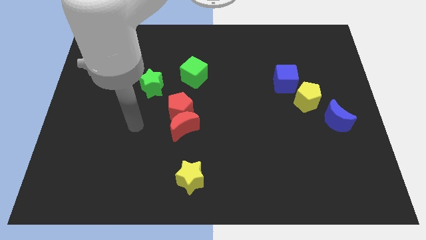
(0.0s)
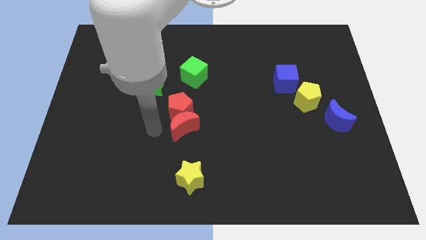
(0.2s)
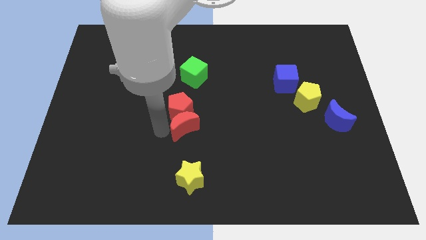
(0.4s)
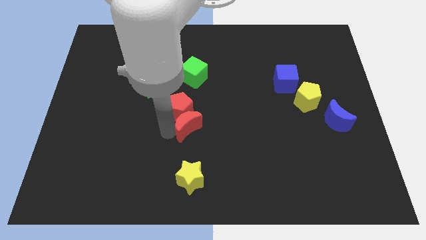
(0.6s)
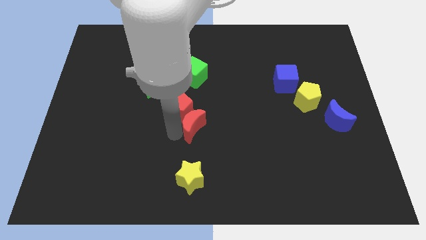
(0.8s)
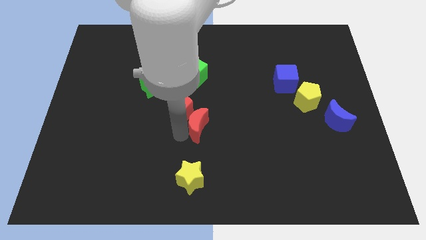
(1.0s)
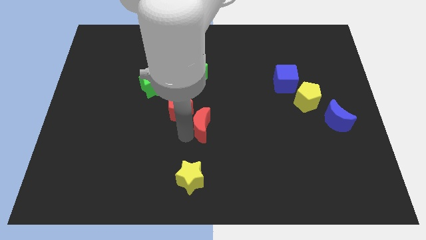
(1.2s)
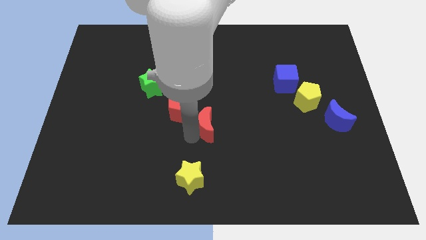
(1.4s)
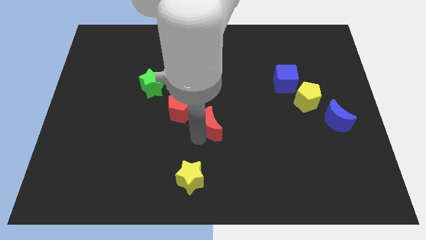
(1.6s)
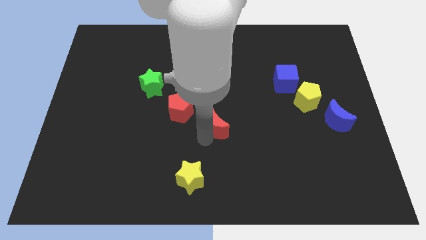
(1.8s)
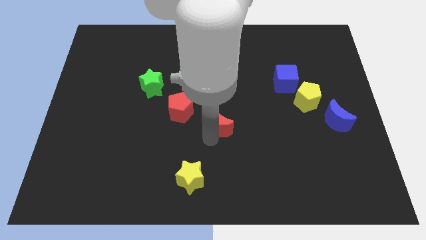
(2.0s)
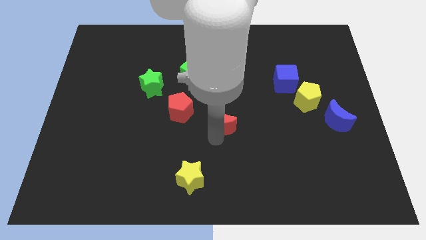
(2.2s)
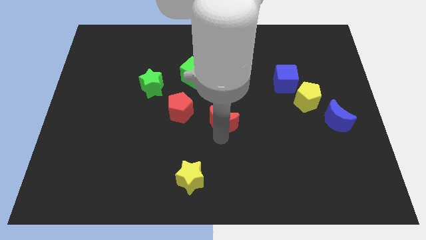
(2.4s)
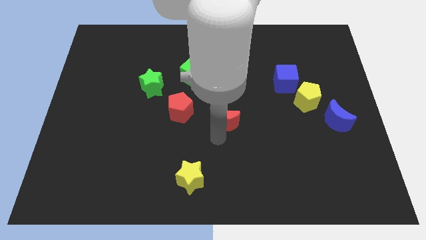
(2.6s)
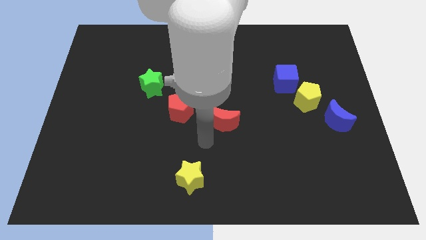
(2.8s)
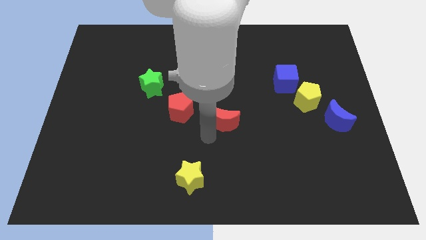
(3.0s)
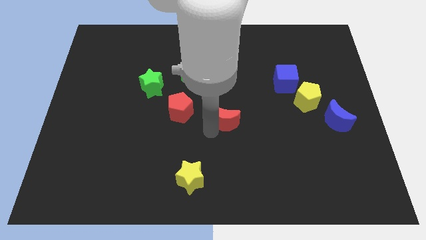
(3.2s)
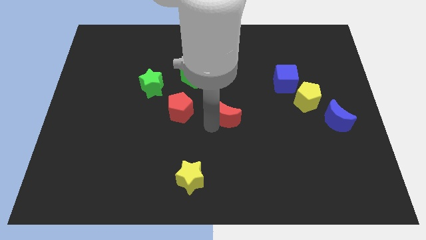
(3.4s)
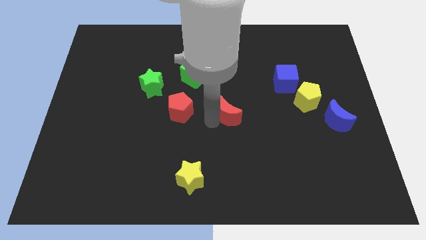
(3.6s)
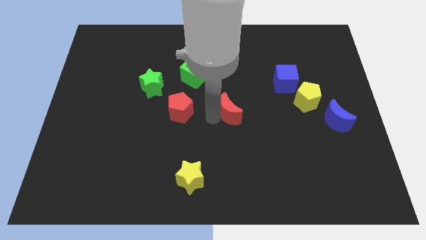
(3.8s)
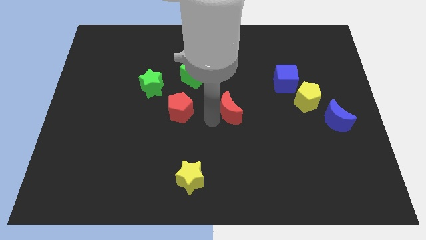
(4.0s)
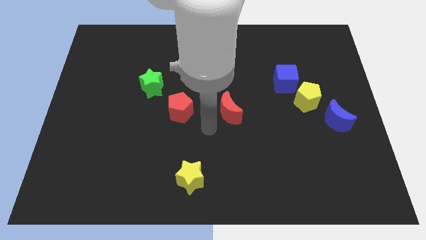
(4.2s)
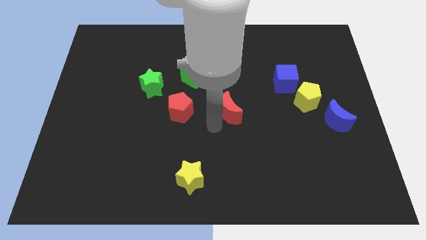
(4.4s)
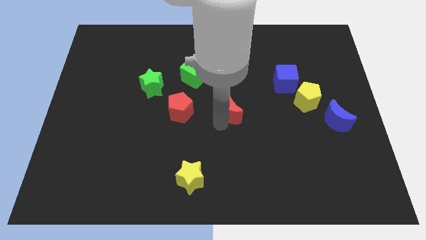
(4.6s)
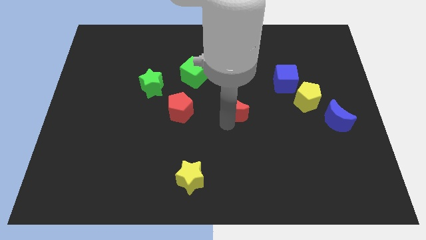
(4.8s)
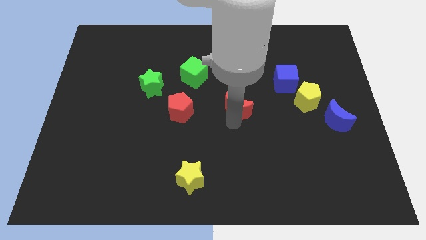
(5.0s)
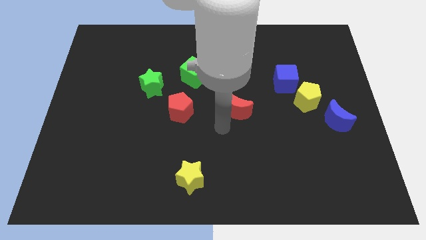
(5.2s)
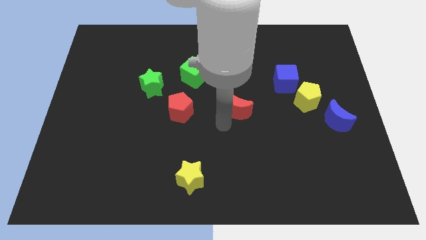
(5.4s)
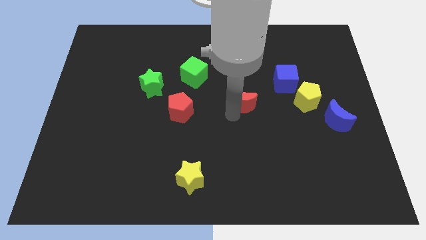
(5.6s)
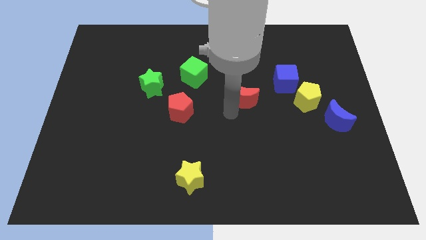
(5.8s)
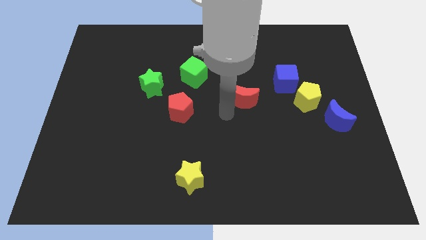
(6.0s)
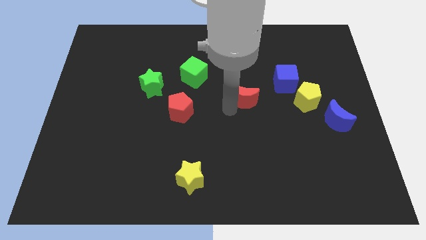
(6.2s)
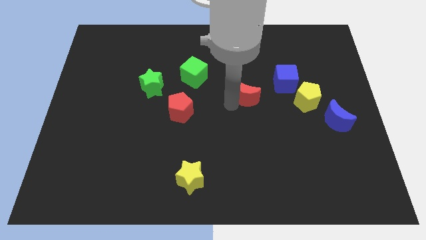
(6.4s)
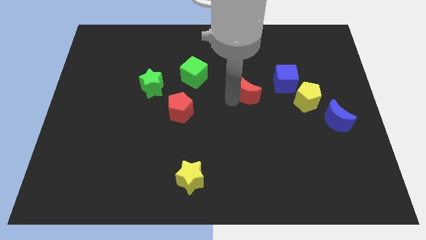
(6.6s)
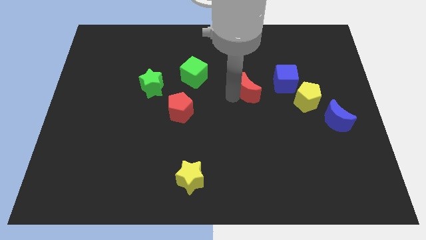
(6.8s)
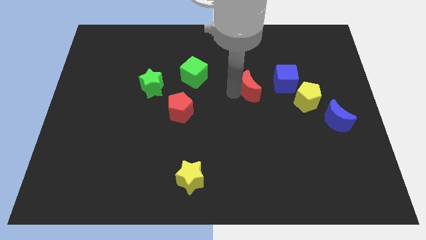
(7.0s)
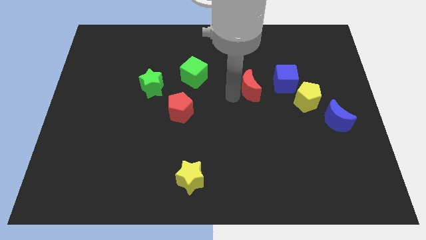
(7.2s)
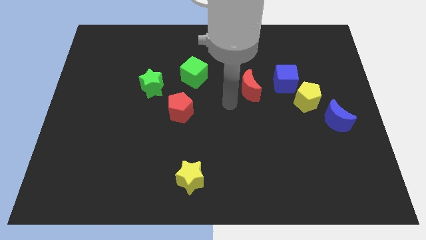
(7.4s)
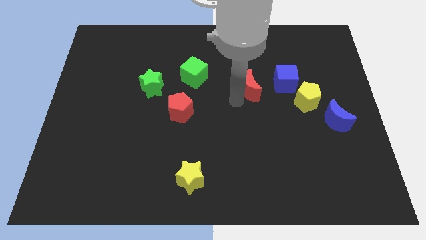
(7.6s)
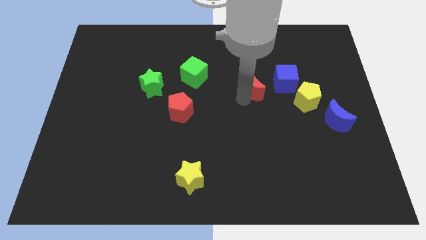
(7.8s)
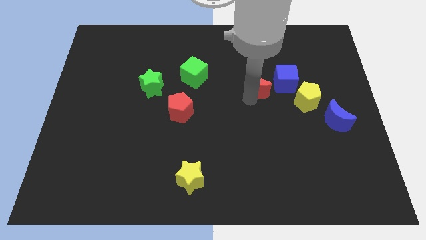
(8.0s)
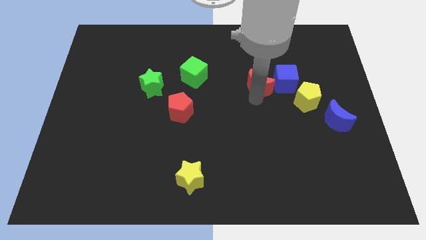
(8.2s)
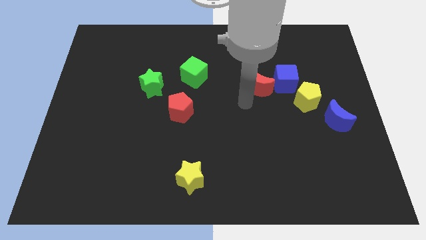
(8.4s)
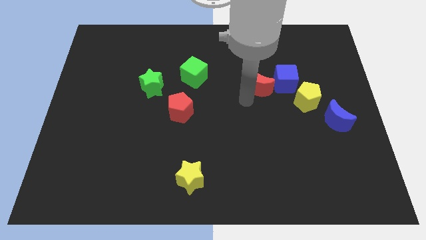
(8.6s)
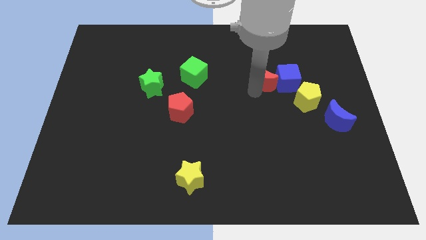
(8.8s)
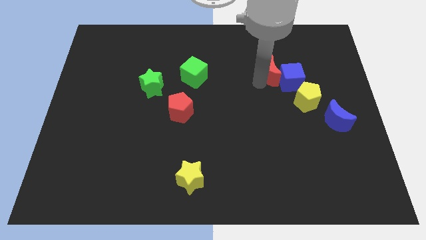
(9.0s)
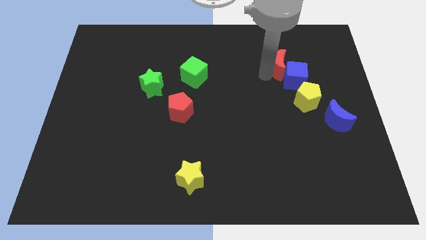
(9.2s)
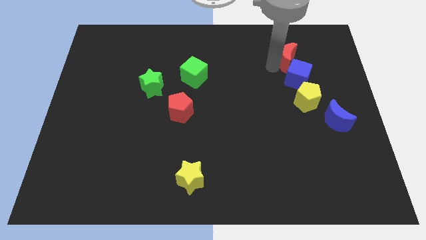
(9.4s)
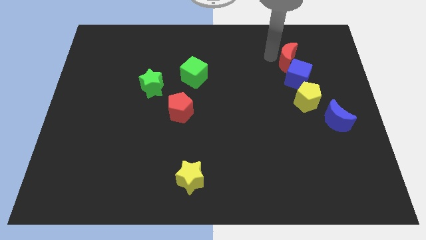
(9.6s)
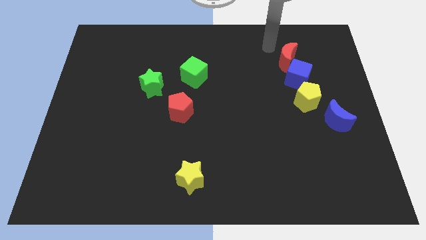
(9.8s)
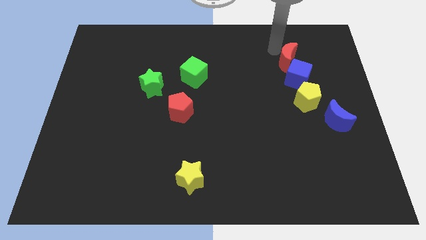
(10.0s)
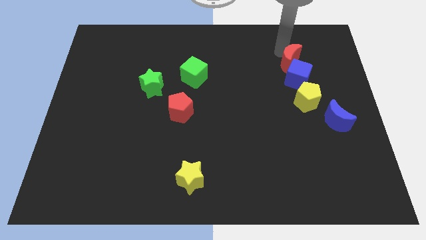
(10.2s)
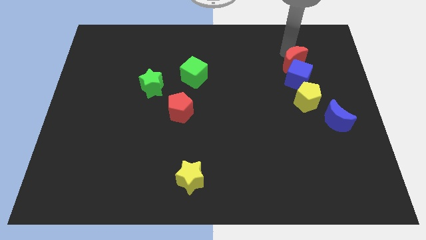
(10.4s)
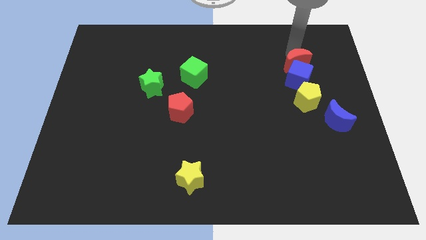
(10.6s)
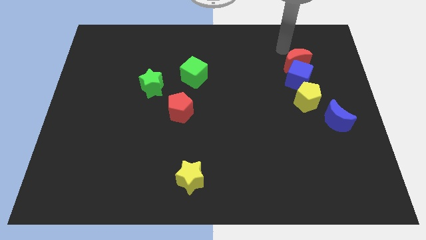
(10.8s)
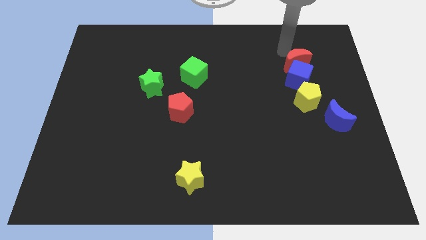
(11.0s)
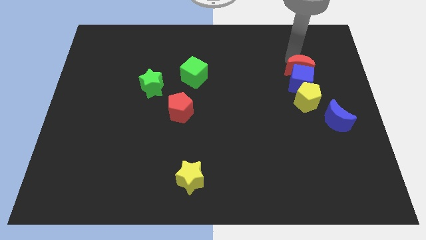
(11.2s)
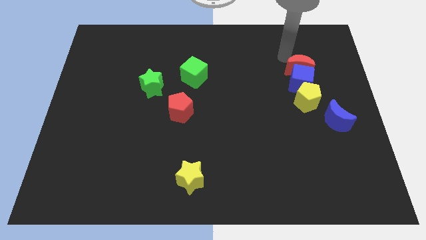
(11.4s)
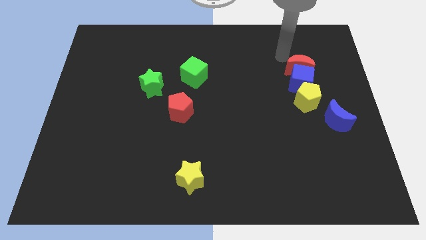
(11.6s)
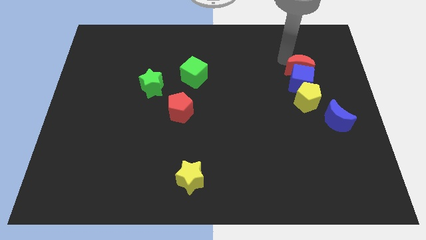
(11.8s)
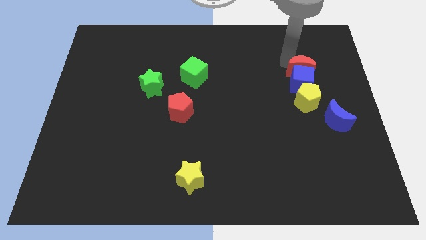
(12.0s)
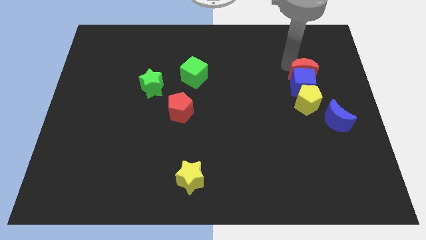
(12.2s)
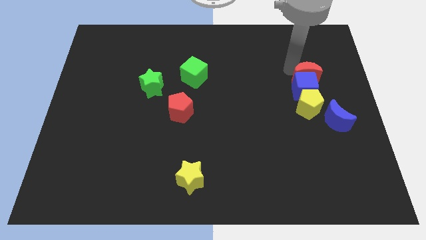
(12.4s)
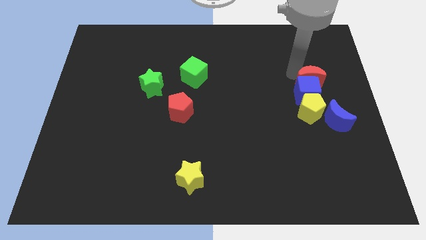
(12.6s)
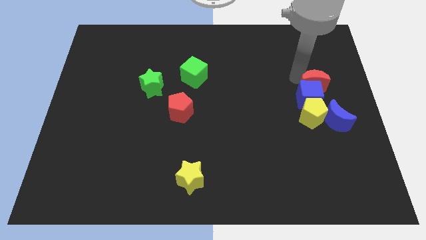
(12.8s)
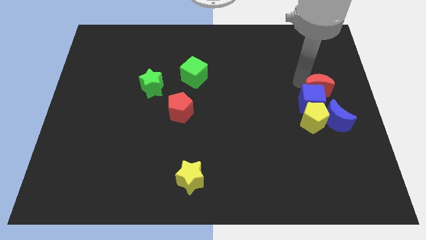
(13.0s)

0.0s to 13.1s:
push the red moon to the top right of the yellow pentagon

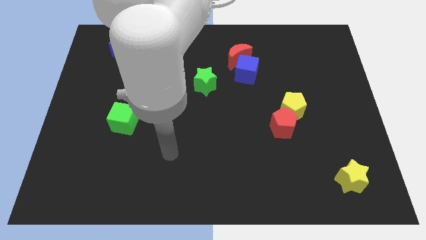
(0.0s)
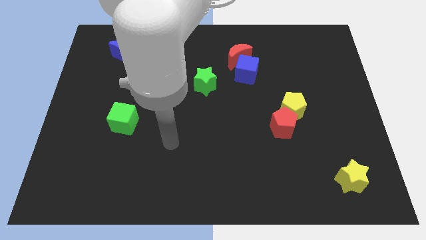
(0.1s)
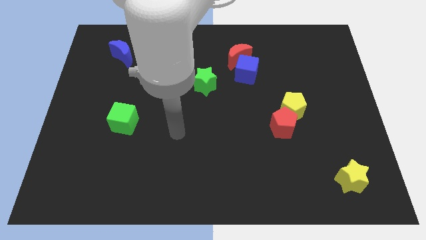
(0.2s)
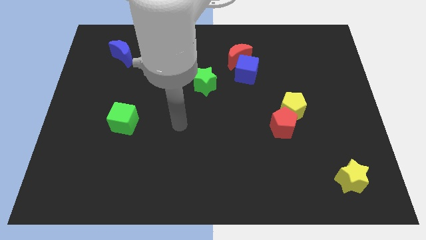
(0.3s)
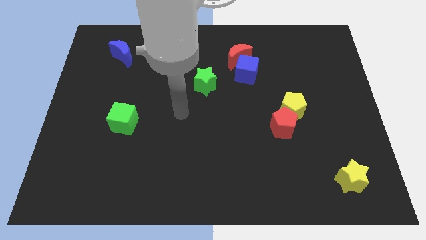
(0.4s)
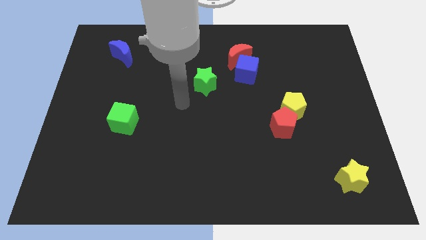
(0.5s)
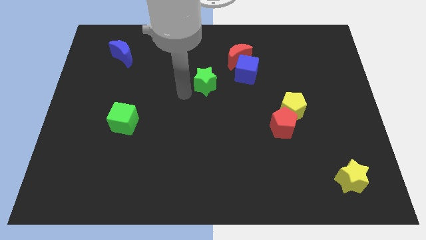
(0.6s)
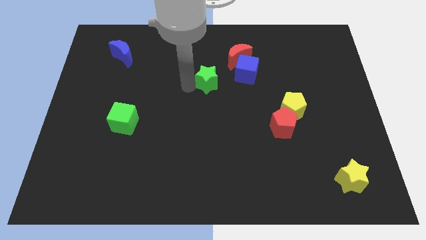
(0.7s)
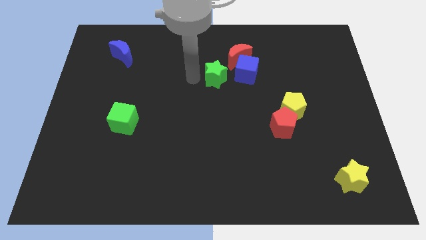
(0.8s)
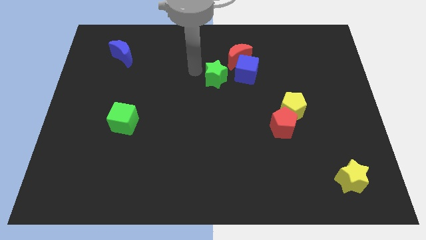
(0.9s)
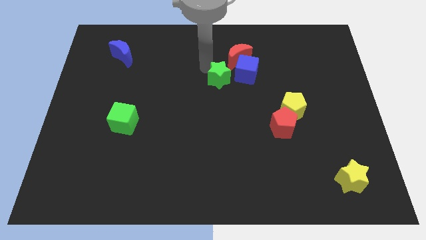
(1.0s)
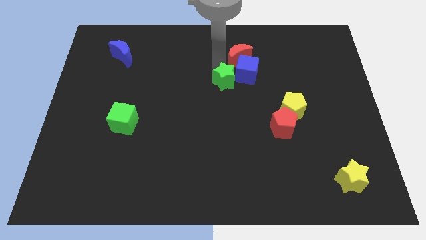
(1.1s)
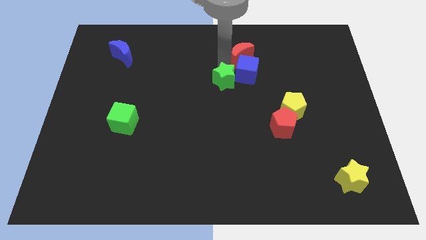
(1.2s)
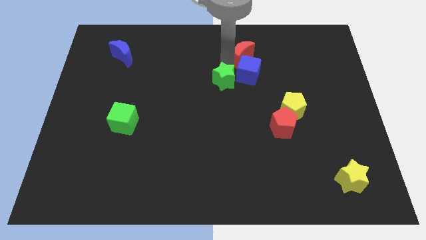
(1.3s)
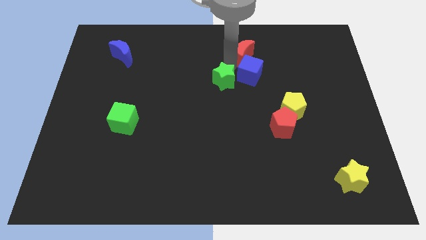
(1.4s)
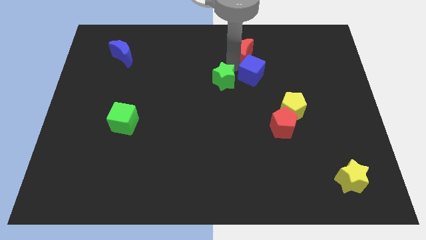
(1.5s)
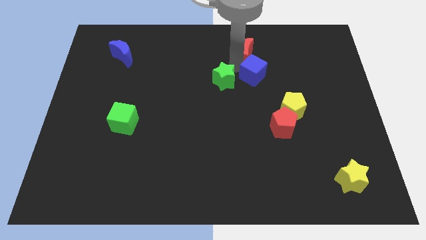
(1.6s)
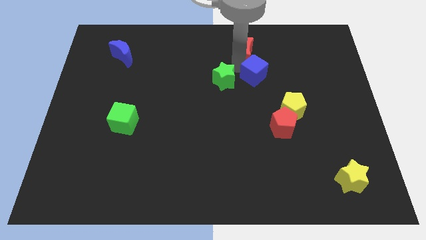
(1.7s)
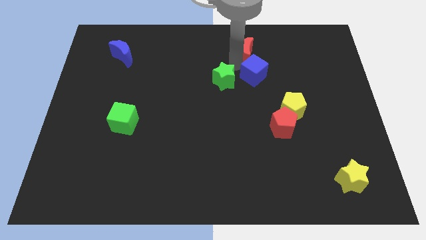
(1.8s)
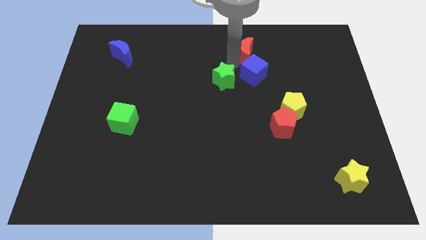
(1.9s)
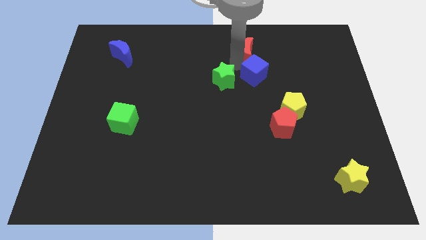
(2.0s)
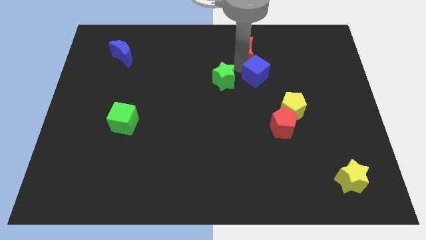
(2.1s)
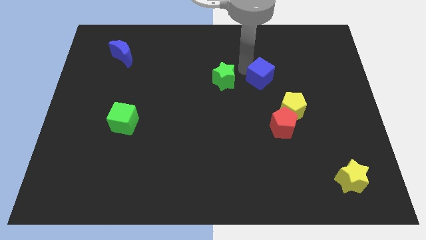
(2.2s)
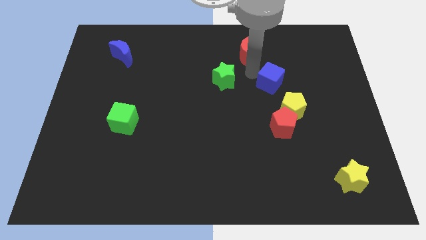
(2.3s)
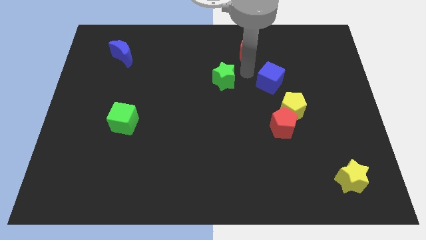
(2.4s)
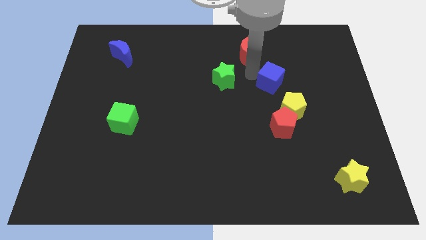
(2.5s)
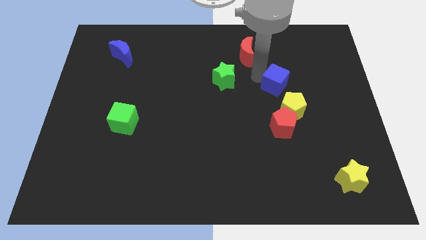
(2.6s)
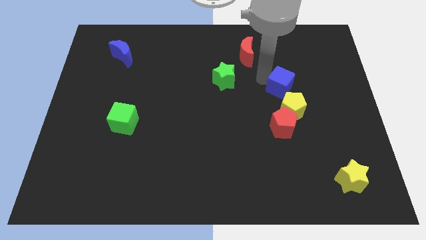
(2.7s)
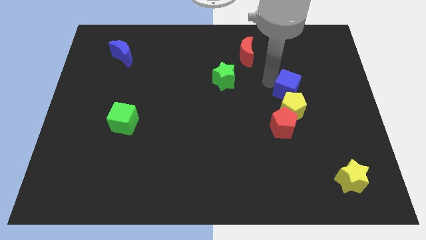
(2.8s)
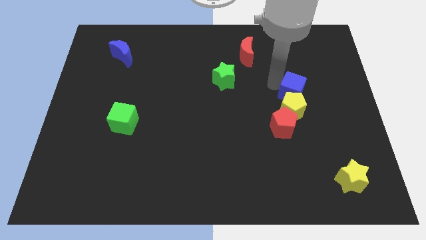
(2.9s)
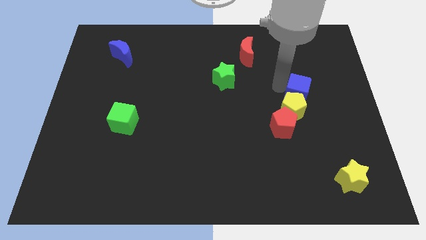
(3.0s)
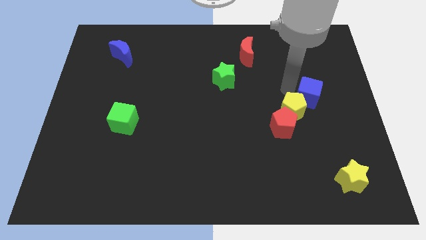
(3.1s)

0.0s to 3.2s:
put the blue cube just right of the yellow pentagon
